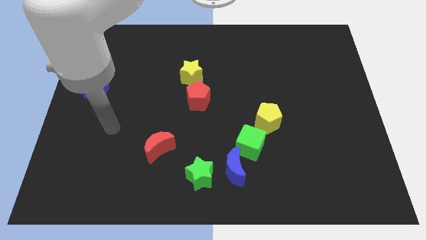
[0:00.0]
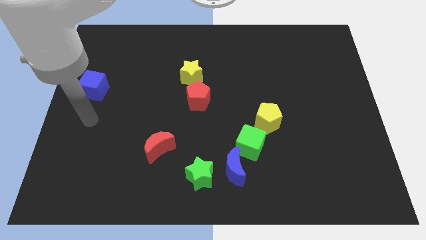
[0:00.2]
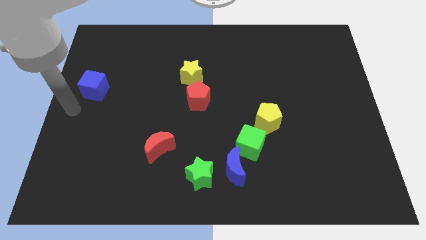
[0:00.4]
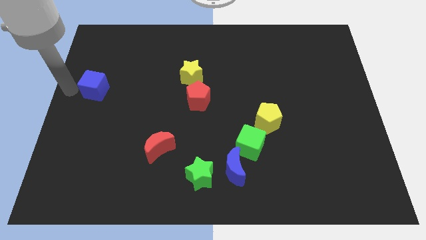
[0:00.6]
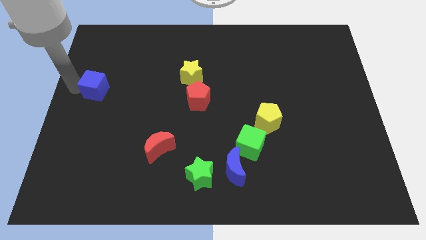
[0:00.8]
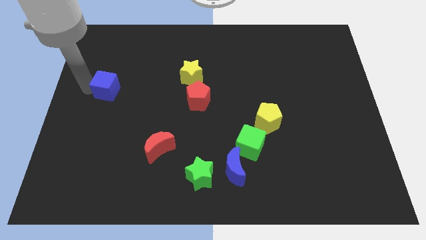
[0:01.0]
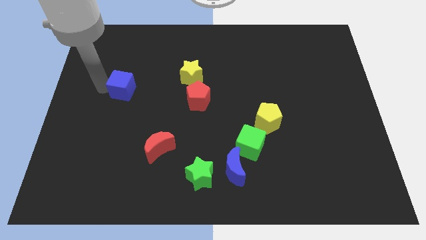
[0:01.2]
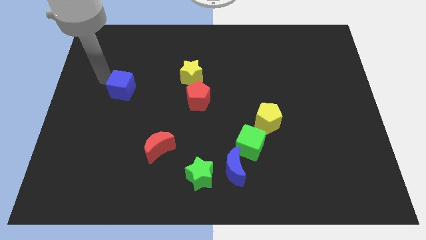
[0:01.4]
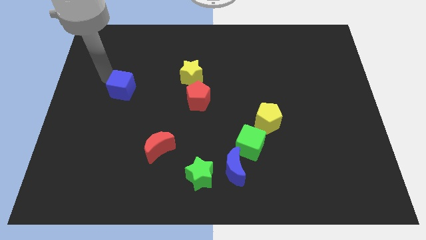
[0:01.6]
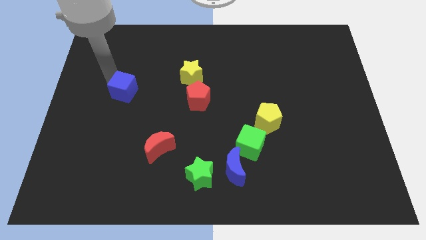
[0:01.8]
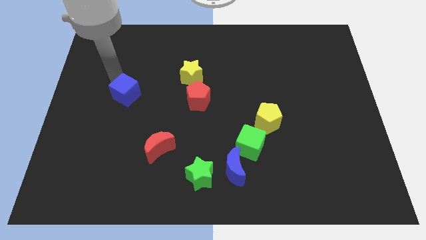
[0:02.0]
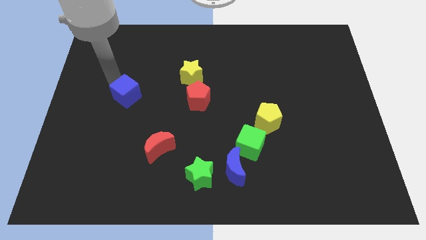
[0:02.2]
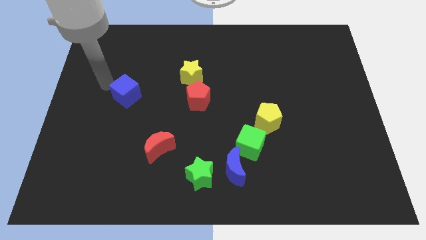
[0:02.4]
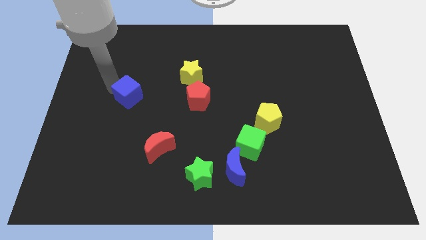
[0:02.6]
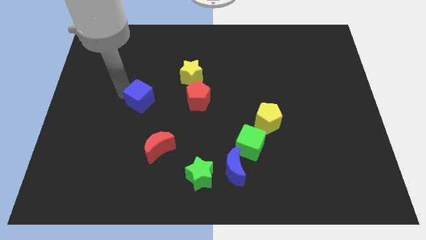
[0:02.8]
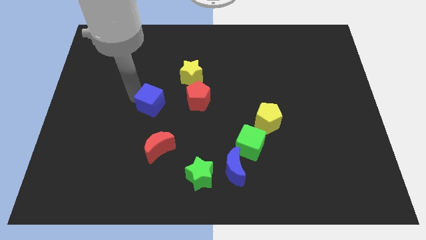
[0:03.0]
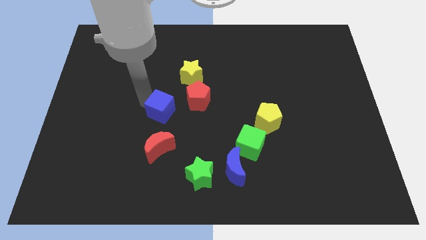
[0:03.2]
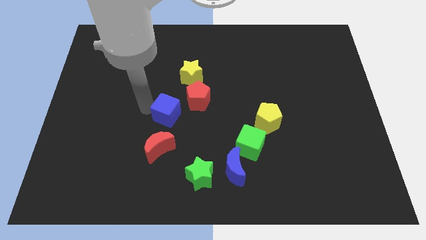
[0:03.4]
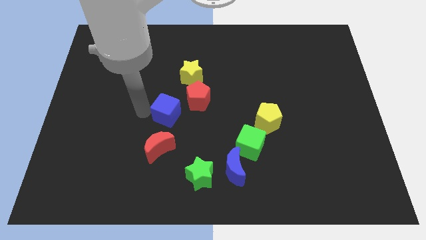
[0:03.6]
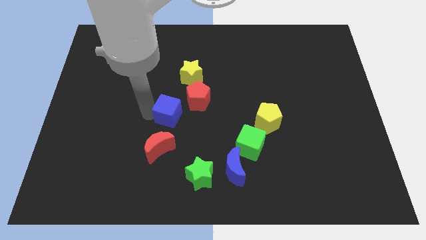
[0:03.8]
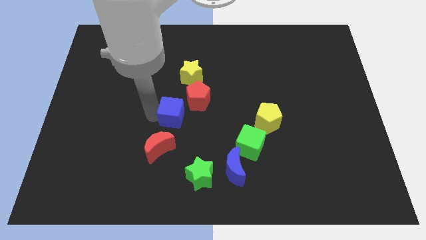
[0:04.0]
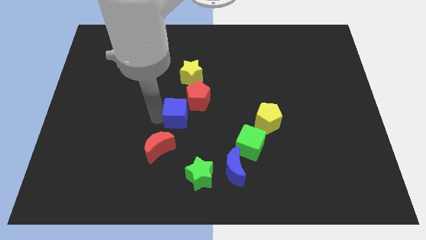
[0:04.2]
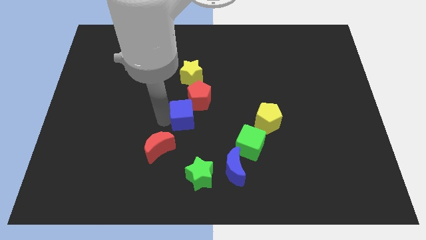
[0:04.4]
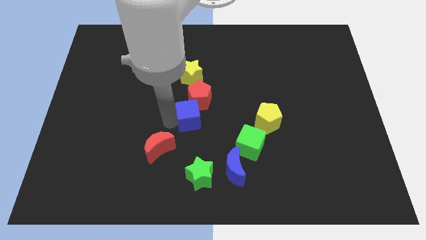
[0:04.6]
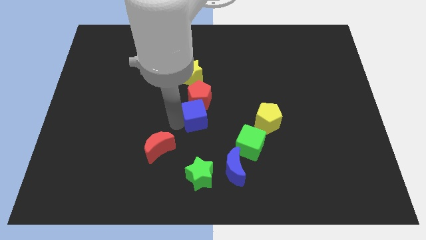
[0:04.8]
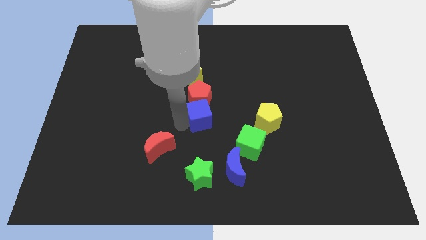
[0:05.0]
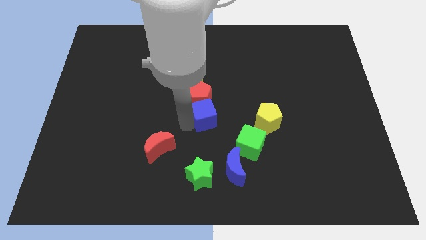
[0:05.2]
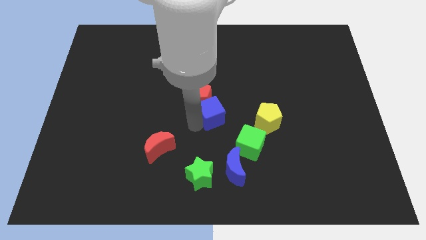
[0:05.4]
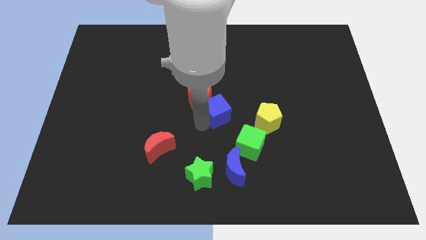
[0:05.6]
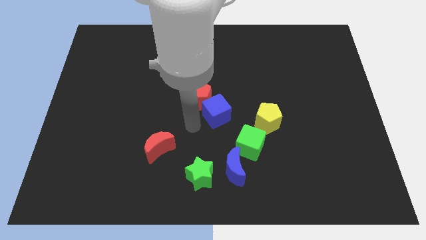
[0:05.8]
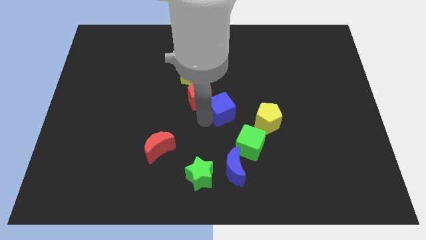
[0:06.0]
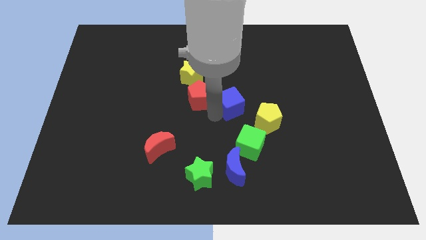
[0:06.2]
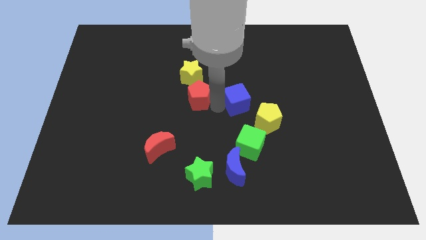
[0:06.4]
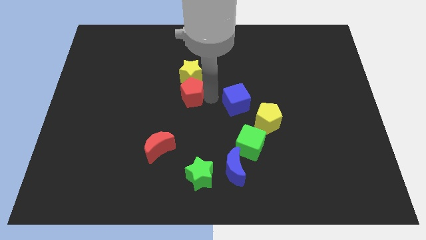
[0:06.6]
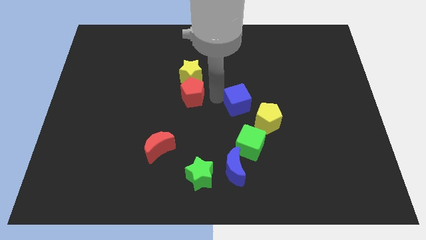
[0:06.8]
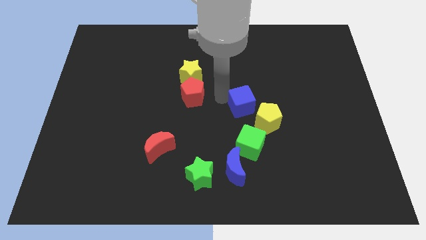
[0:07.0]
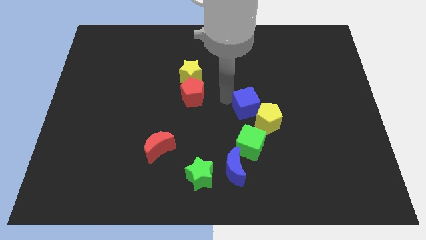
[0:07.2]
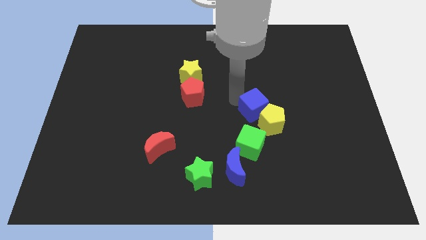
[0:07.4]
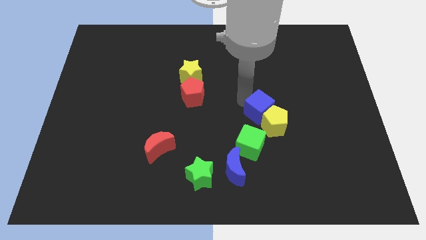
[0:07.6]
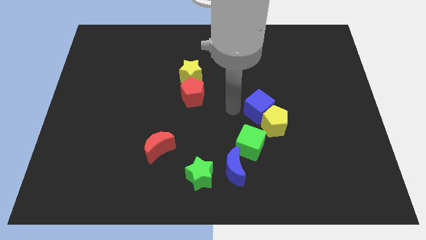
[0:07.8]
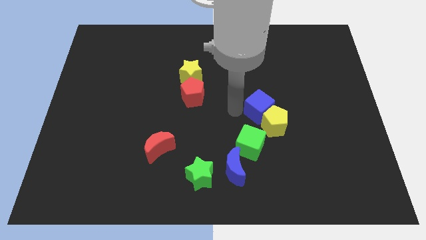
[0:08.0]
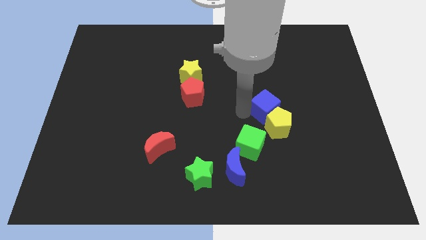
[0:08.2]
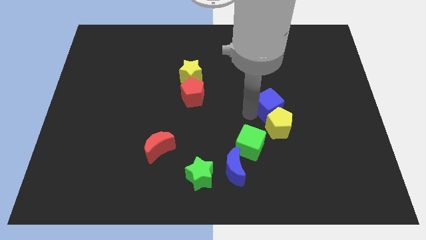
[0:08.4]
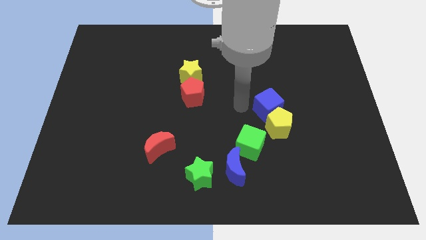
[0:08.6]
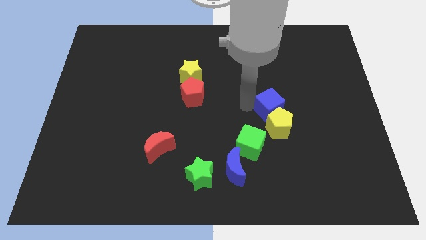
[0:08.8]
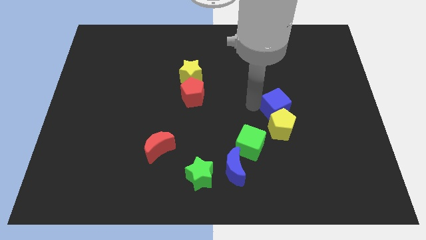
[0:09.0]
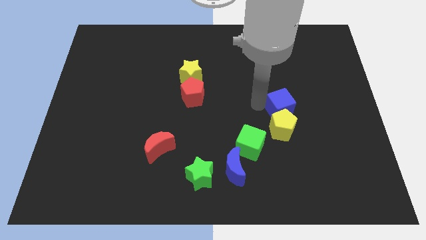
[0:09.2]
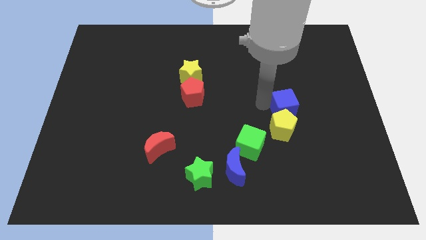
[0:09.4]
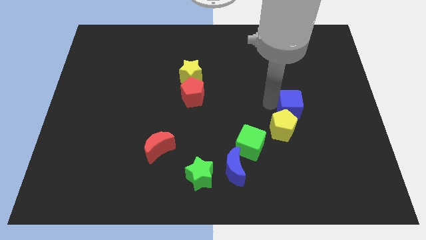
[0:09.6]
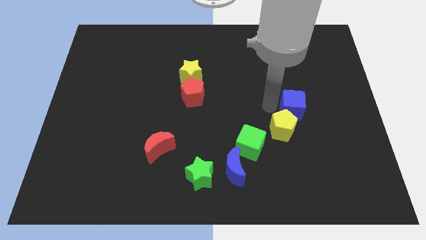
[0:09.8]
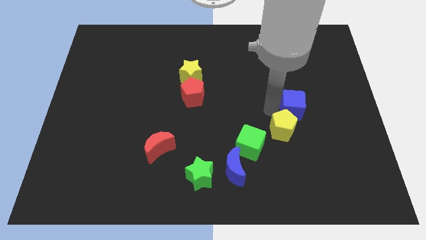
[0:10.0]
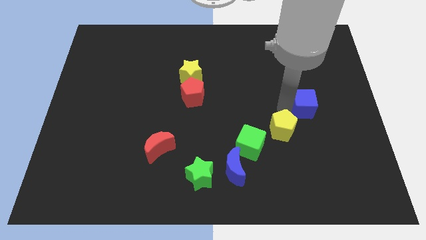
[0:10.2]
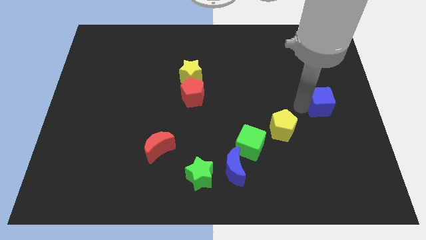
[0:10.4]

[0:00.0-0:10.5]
slide the blue cube to the center right

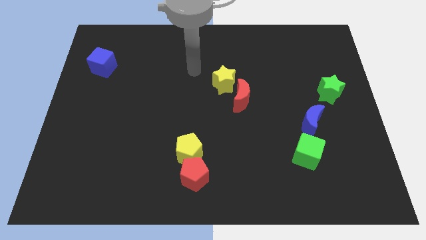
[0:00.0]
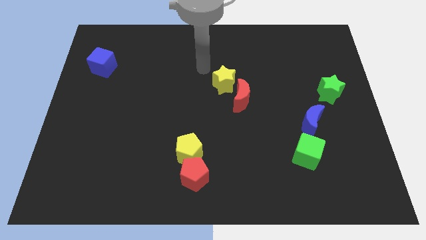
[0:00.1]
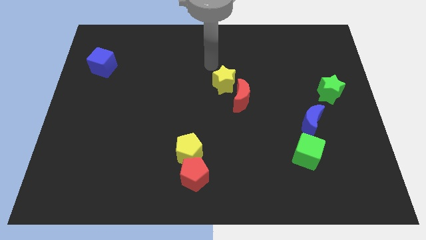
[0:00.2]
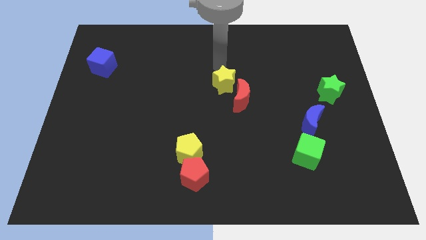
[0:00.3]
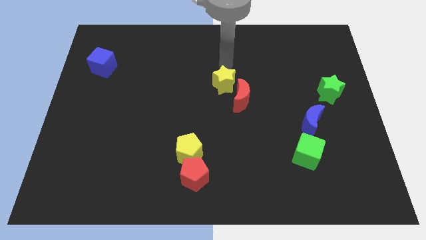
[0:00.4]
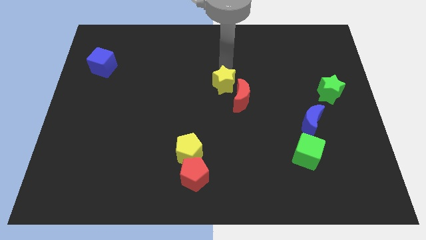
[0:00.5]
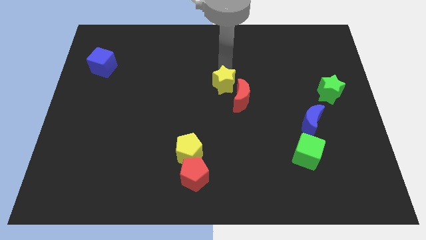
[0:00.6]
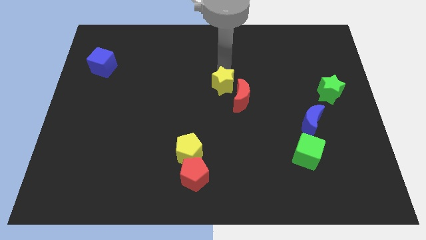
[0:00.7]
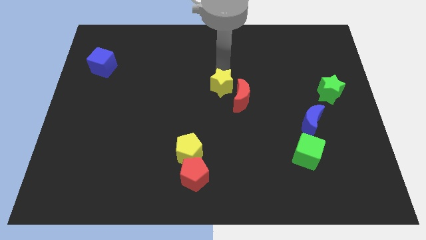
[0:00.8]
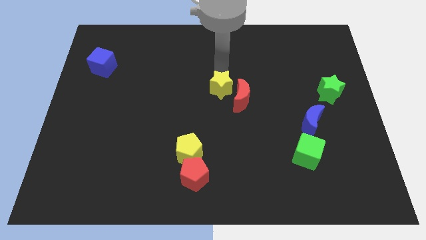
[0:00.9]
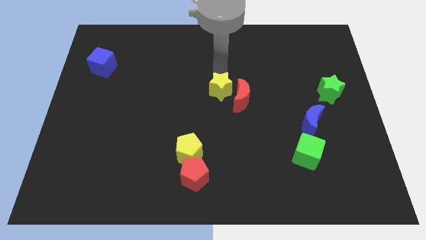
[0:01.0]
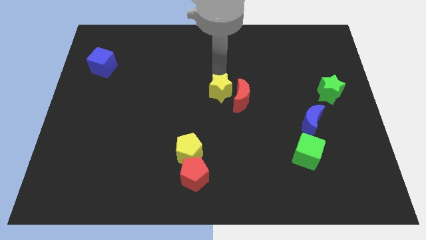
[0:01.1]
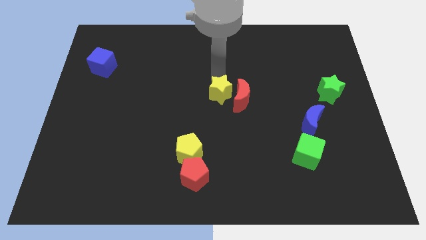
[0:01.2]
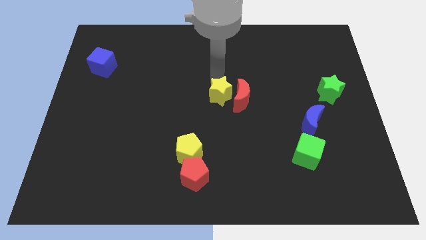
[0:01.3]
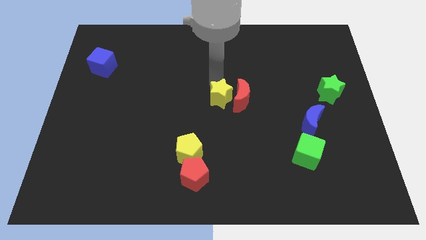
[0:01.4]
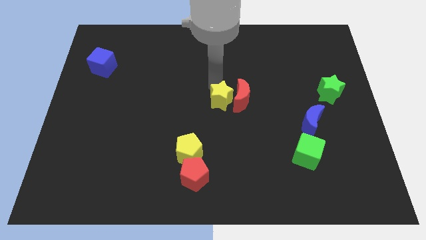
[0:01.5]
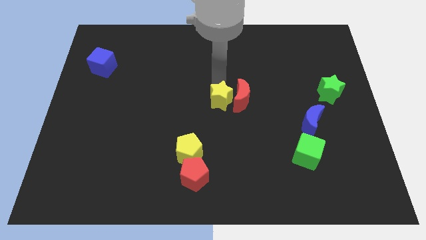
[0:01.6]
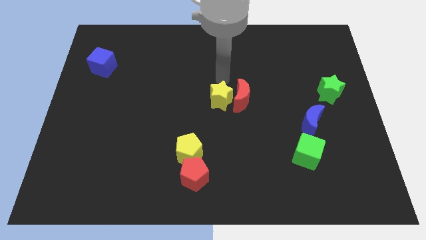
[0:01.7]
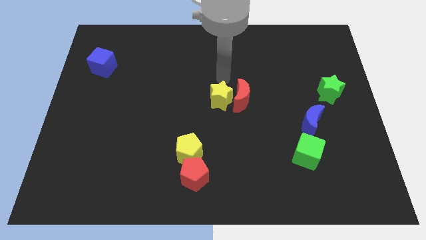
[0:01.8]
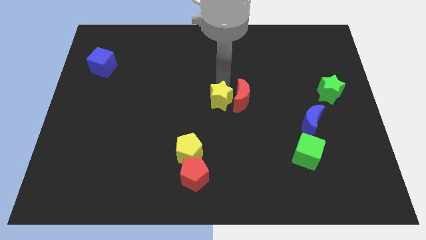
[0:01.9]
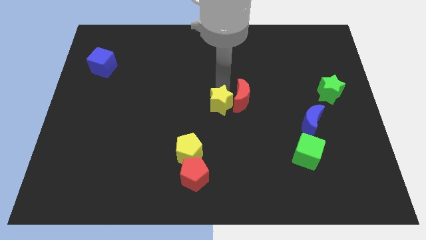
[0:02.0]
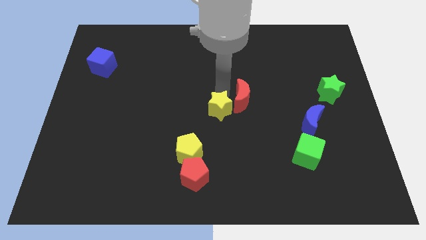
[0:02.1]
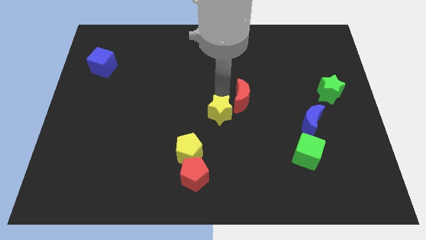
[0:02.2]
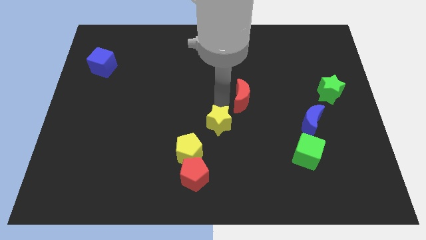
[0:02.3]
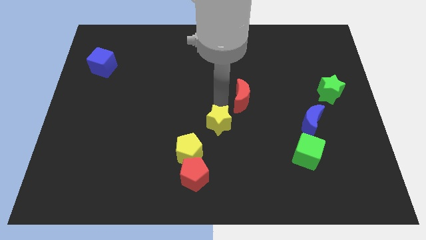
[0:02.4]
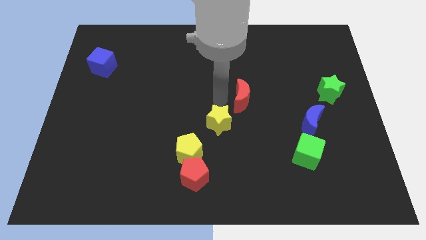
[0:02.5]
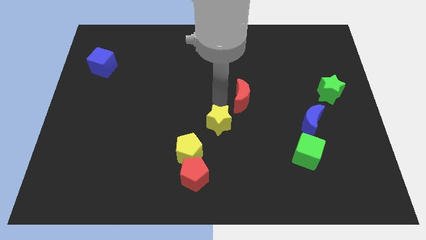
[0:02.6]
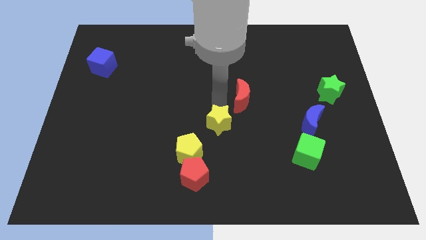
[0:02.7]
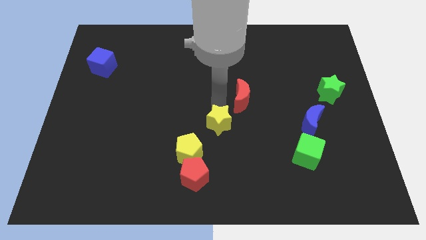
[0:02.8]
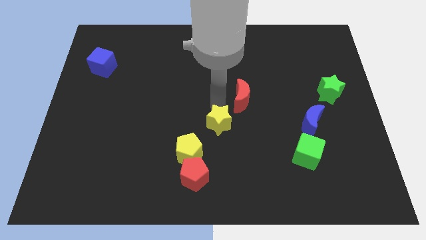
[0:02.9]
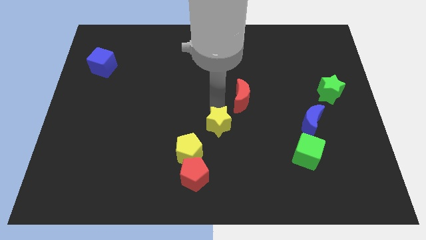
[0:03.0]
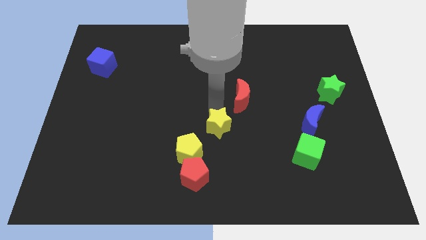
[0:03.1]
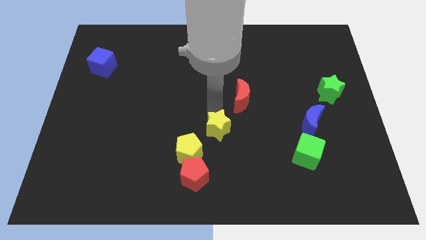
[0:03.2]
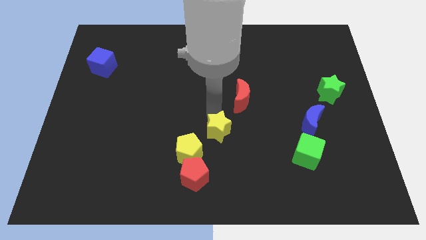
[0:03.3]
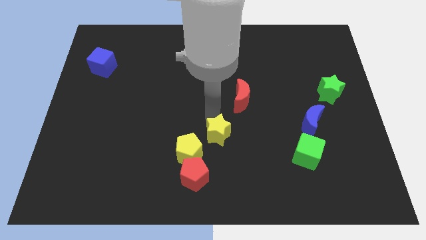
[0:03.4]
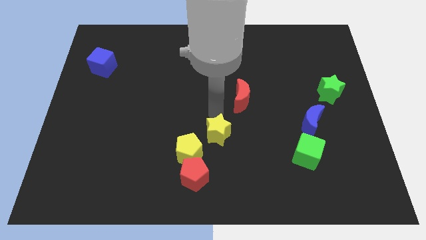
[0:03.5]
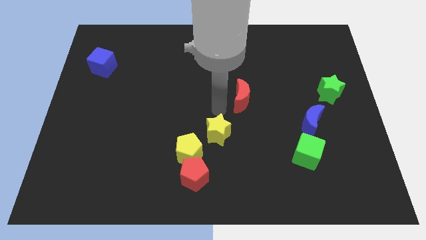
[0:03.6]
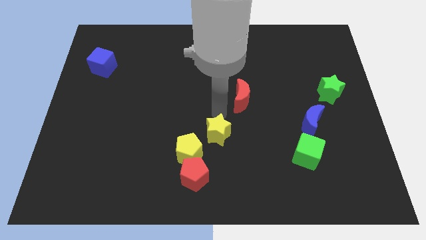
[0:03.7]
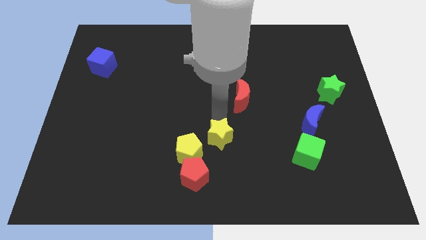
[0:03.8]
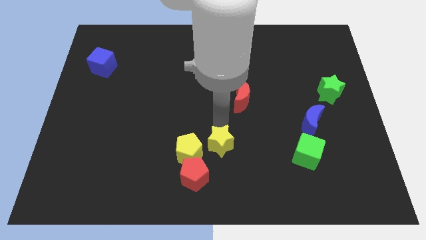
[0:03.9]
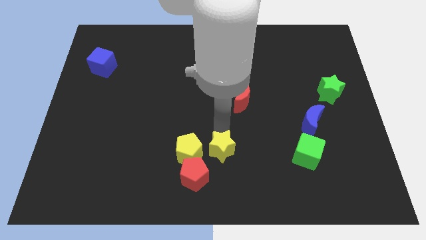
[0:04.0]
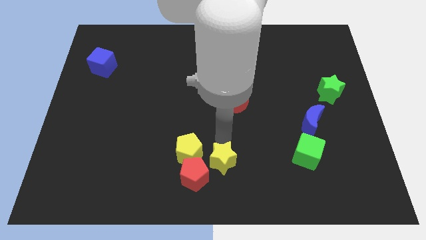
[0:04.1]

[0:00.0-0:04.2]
move the yellow star to the bottom side
